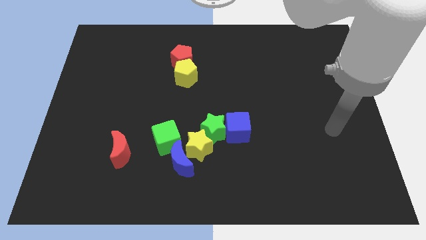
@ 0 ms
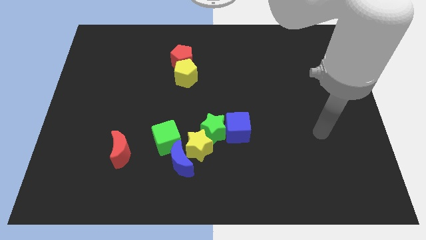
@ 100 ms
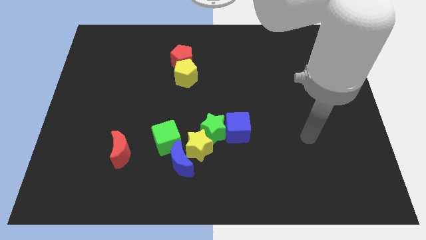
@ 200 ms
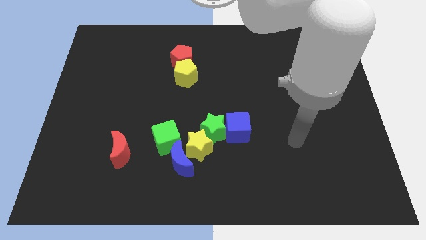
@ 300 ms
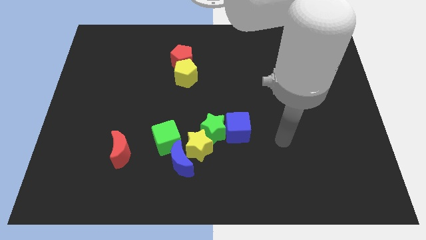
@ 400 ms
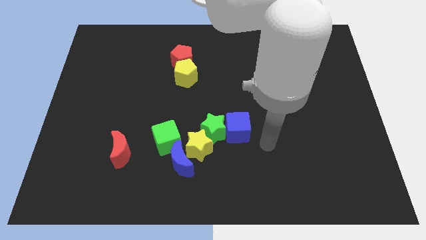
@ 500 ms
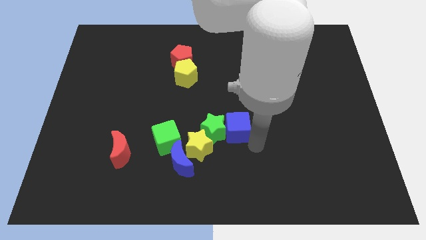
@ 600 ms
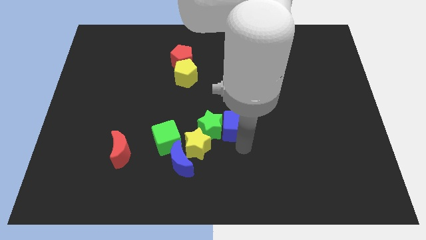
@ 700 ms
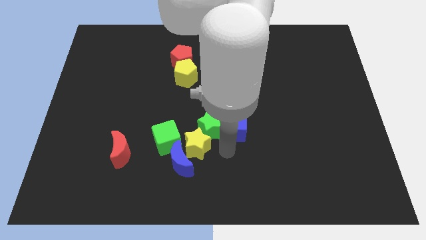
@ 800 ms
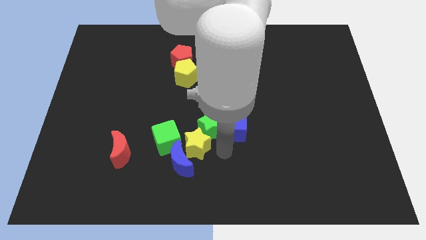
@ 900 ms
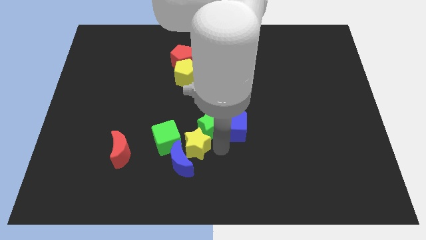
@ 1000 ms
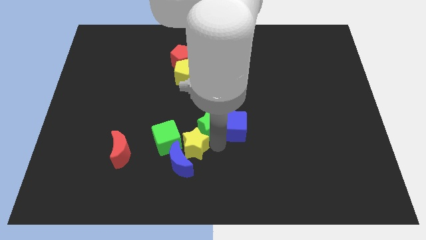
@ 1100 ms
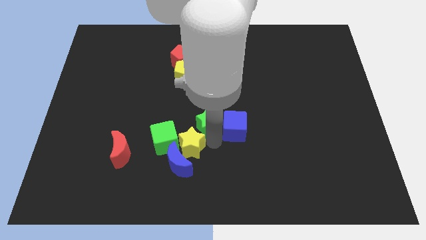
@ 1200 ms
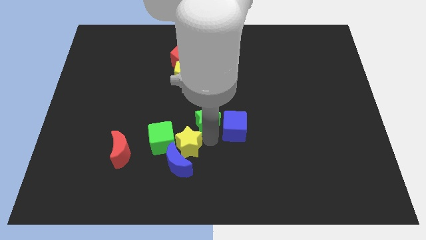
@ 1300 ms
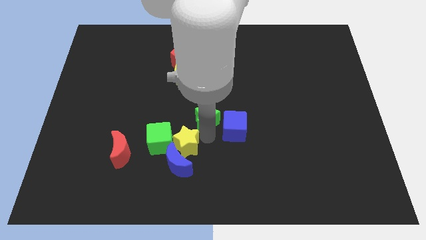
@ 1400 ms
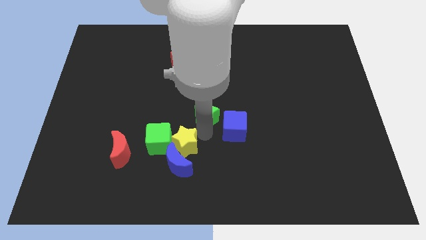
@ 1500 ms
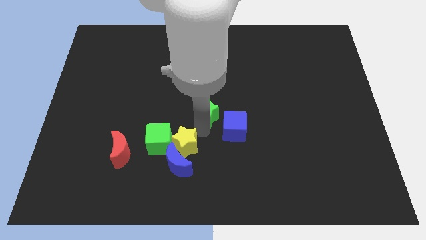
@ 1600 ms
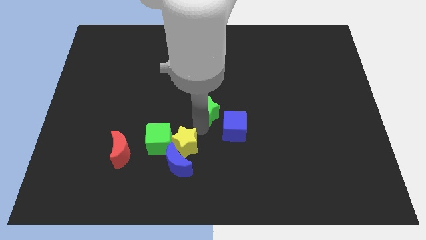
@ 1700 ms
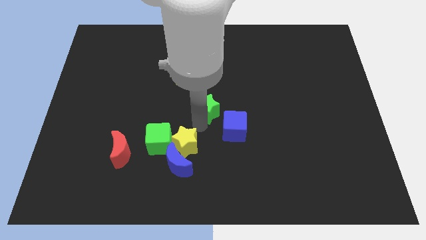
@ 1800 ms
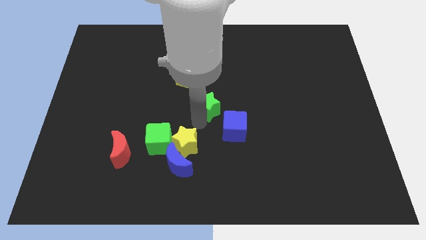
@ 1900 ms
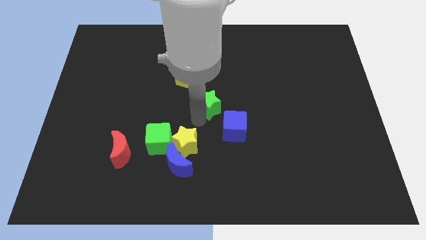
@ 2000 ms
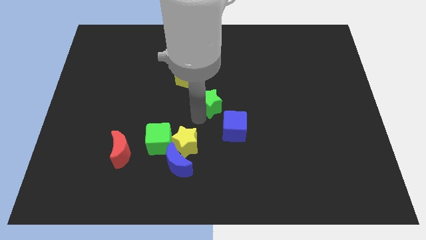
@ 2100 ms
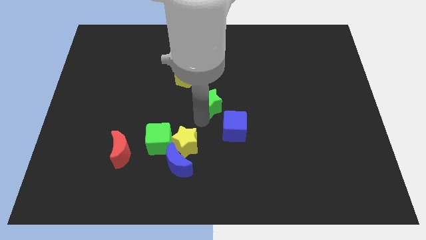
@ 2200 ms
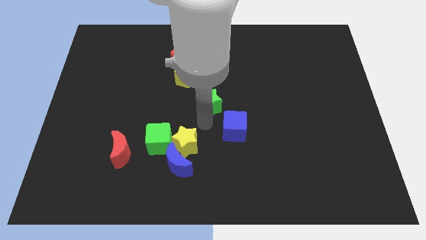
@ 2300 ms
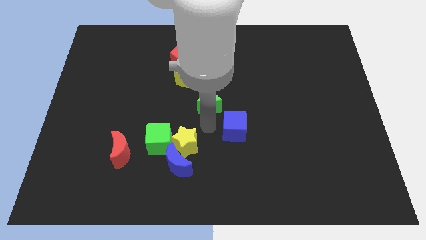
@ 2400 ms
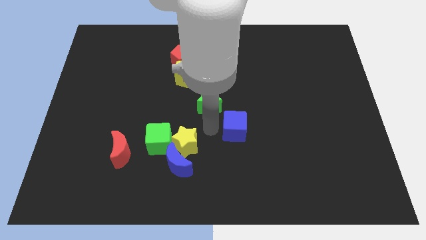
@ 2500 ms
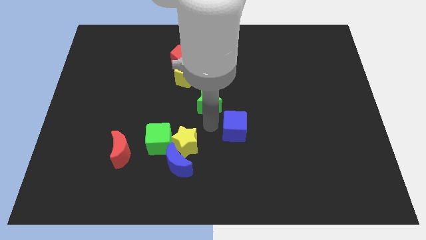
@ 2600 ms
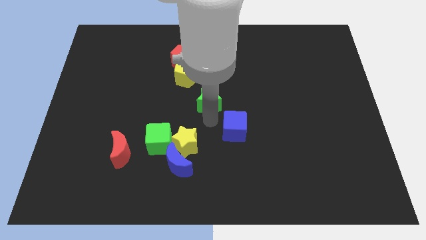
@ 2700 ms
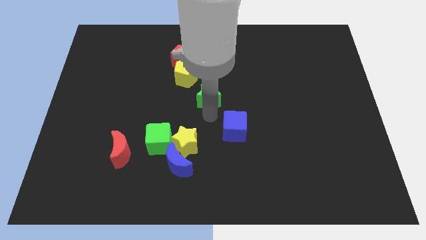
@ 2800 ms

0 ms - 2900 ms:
pull the green star apart from the blue cube and yellow star

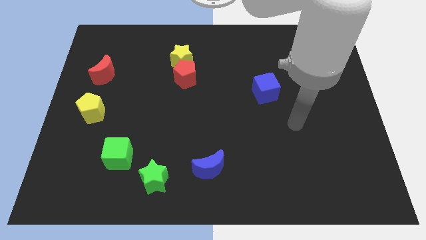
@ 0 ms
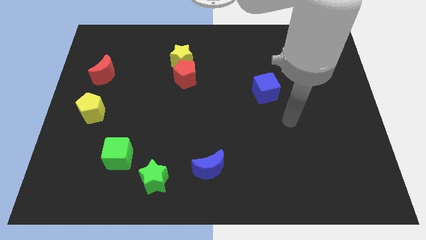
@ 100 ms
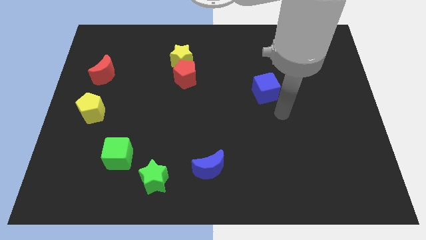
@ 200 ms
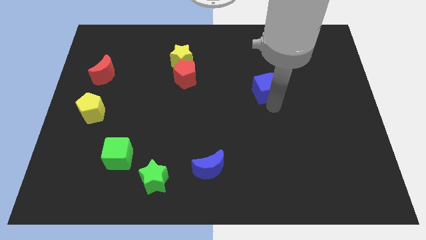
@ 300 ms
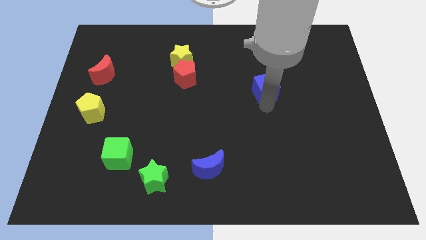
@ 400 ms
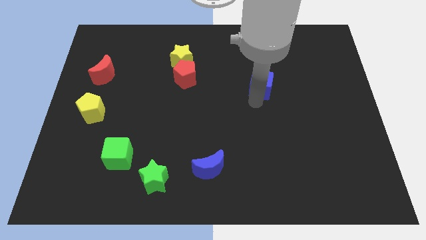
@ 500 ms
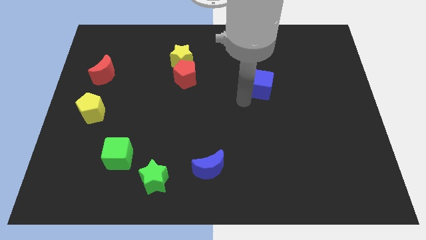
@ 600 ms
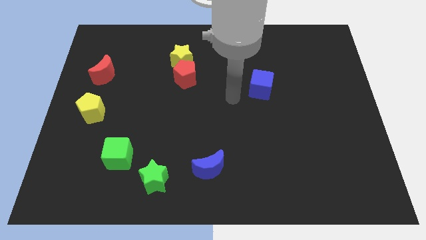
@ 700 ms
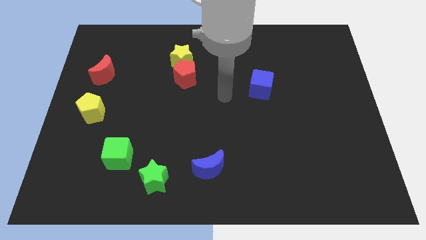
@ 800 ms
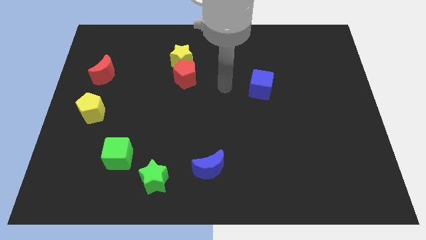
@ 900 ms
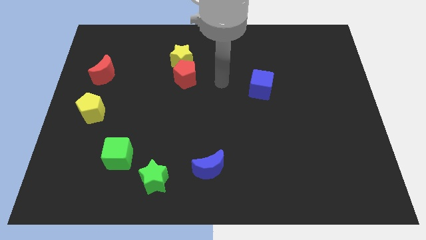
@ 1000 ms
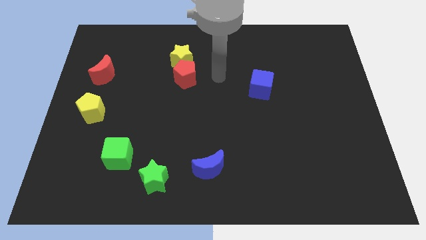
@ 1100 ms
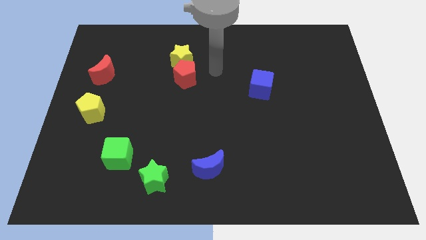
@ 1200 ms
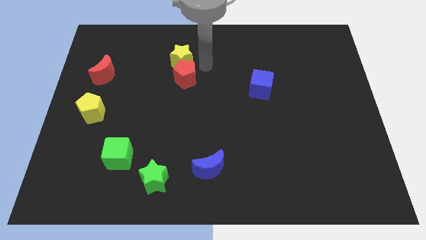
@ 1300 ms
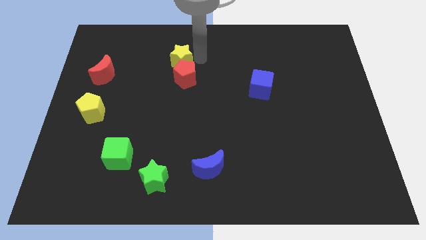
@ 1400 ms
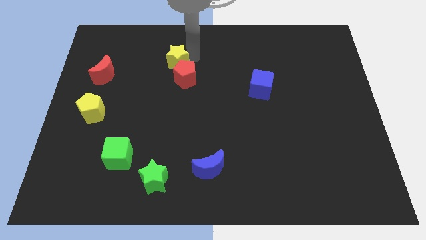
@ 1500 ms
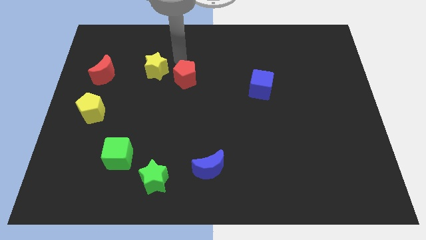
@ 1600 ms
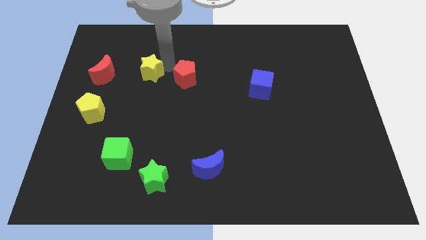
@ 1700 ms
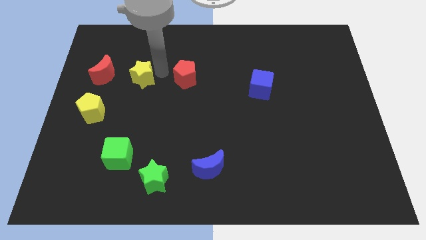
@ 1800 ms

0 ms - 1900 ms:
pull the red pentagon apart from the yellow star

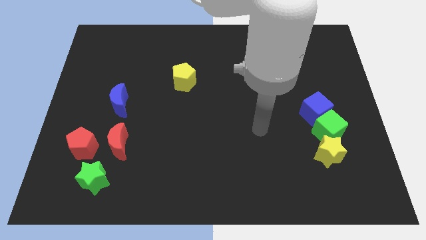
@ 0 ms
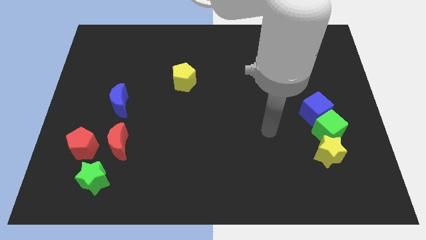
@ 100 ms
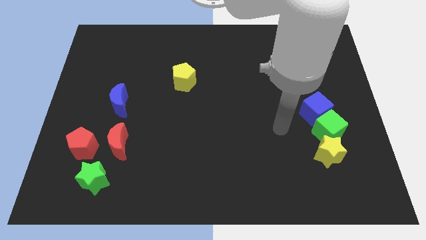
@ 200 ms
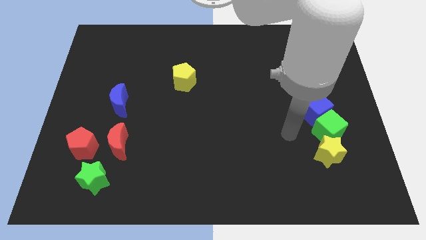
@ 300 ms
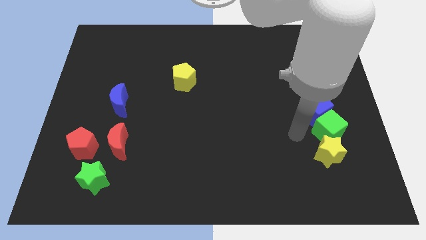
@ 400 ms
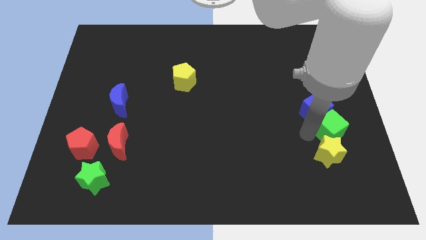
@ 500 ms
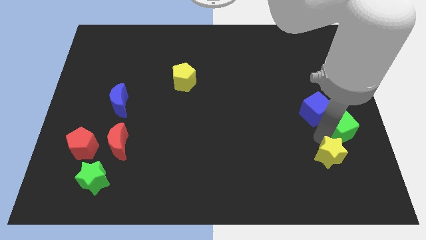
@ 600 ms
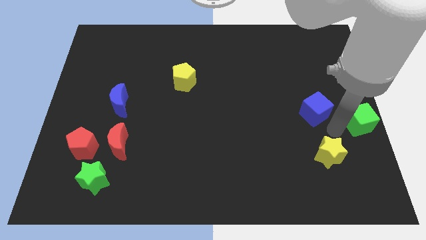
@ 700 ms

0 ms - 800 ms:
separate the blue cube from the green cube

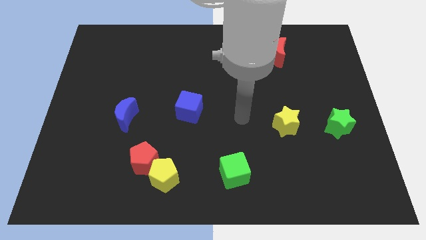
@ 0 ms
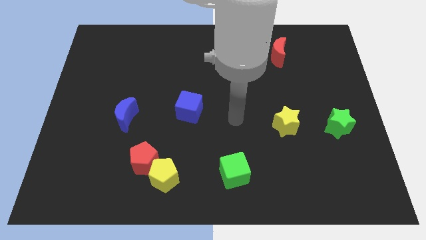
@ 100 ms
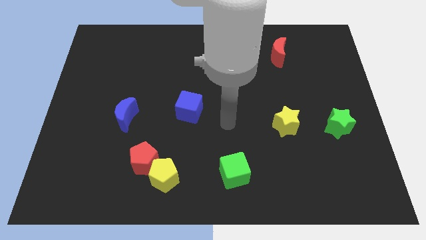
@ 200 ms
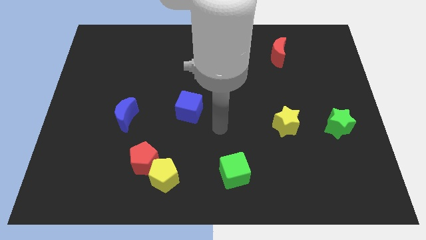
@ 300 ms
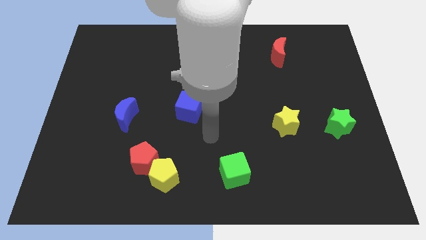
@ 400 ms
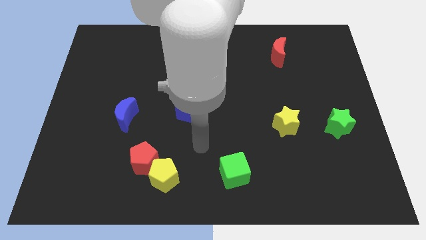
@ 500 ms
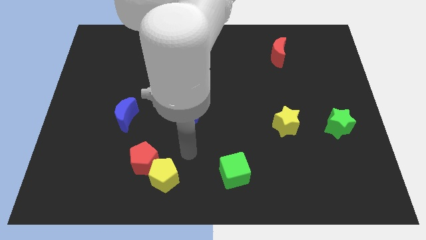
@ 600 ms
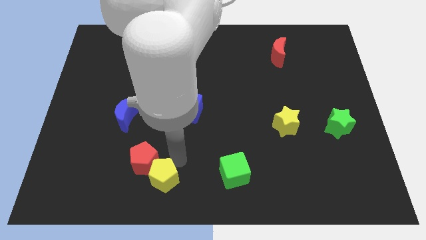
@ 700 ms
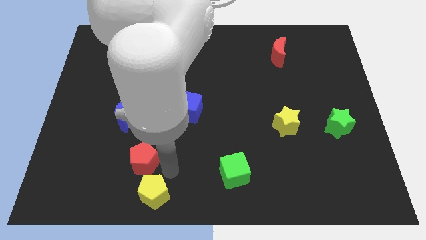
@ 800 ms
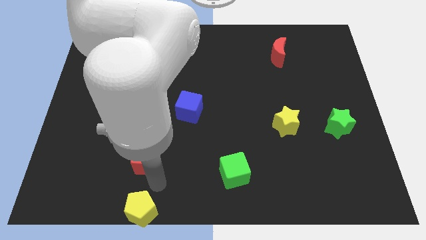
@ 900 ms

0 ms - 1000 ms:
move the red pentagon away from the yellow pentagon

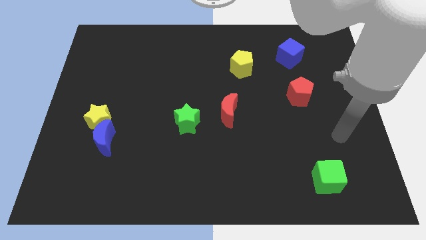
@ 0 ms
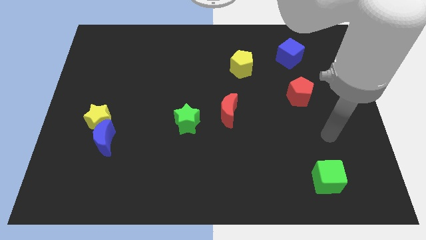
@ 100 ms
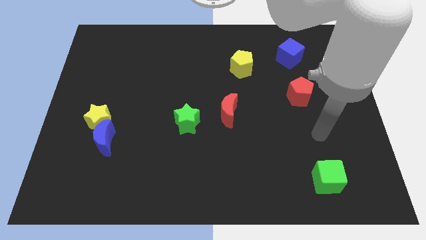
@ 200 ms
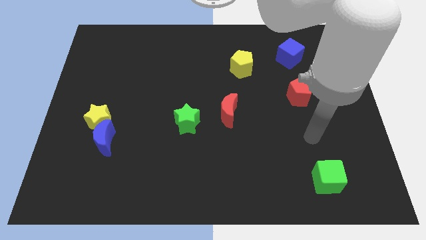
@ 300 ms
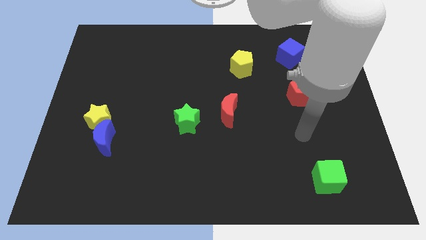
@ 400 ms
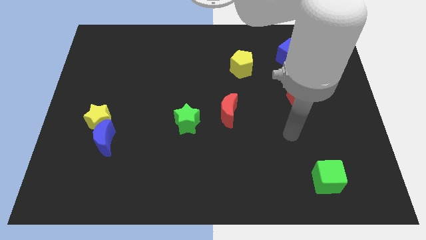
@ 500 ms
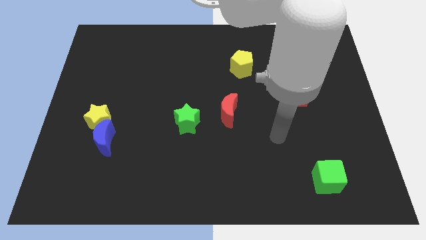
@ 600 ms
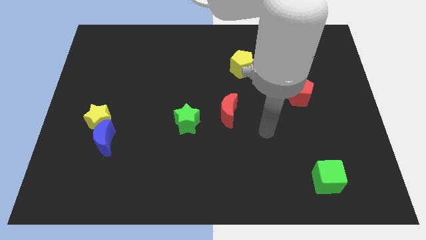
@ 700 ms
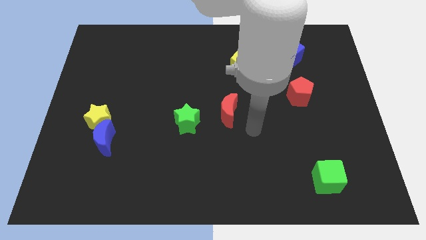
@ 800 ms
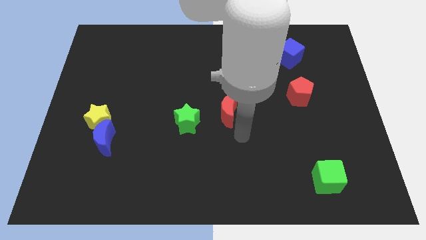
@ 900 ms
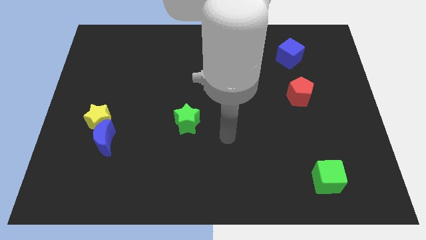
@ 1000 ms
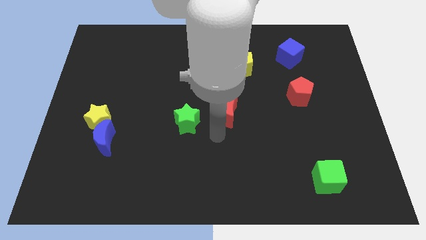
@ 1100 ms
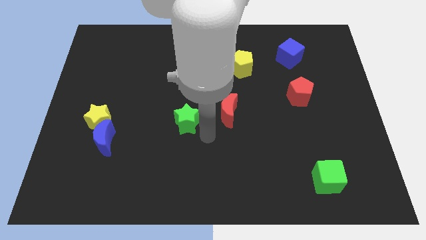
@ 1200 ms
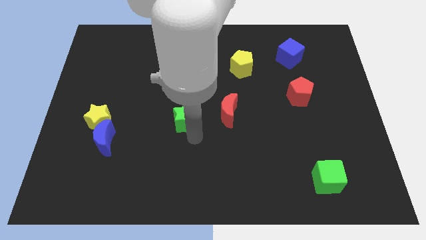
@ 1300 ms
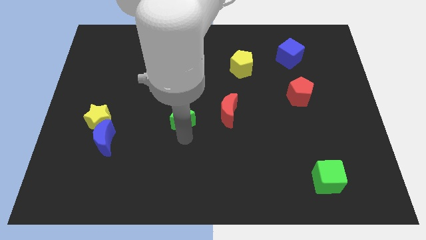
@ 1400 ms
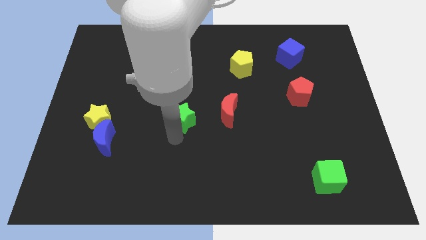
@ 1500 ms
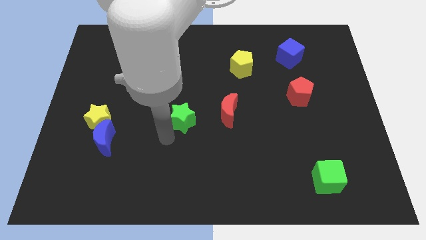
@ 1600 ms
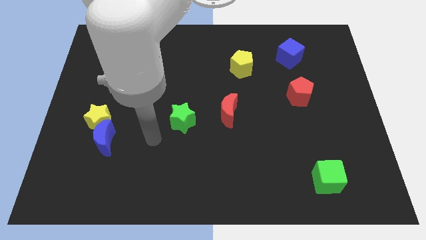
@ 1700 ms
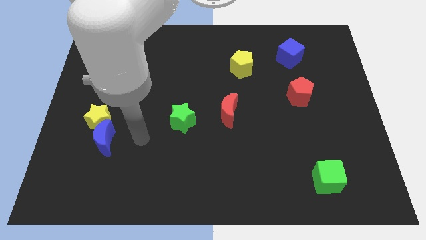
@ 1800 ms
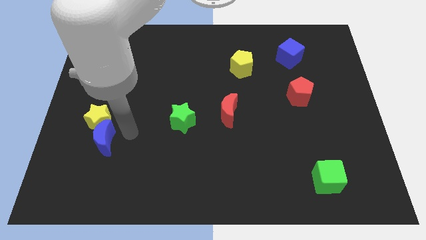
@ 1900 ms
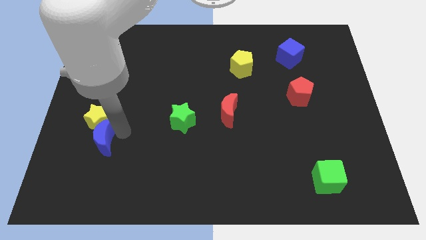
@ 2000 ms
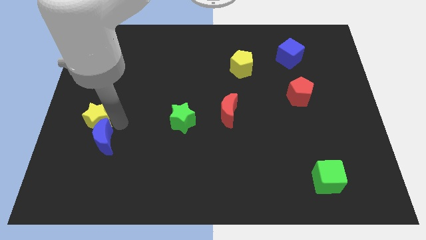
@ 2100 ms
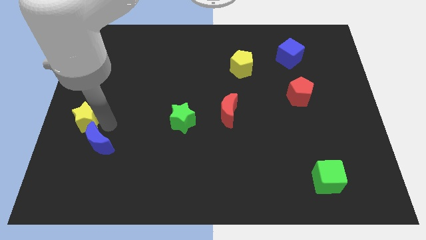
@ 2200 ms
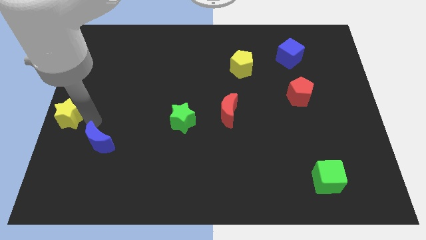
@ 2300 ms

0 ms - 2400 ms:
pull the blue moon apart from the yellow star

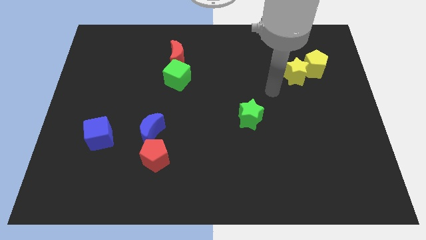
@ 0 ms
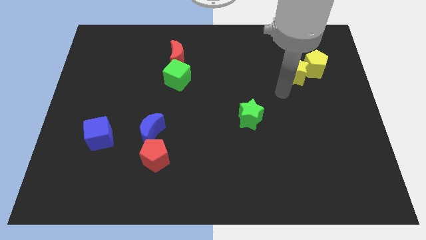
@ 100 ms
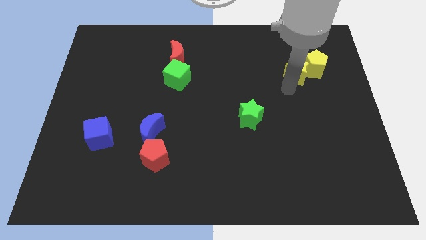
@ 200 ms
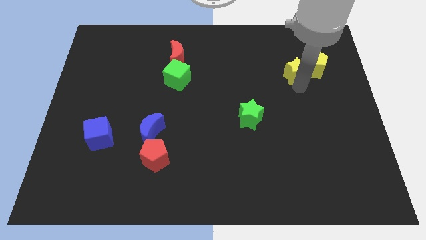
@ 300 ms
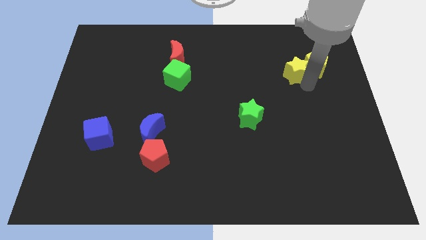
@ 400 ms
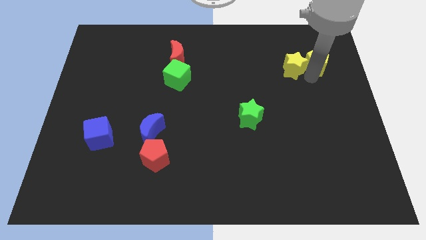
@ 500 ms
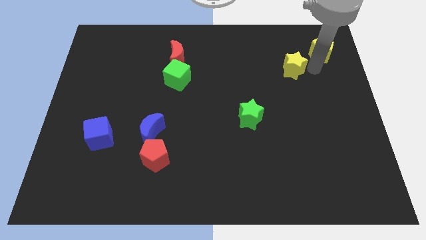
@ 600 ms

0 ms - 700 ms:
separate the yellow star from the yellow pentagon
